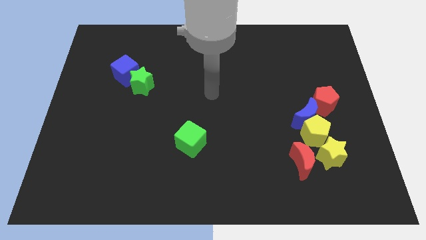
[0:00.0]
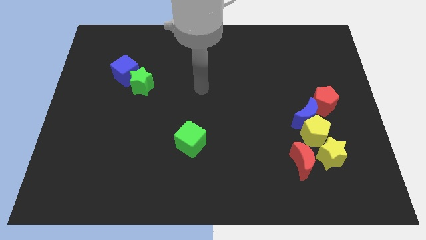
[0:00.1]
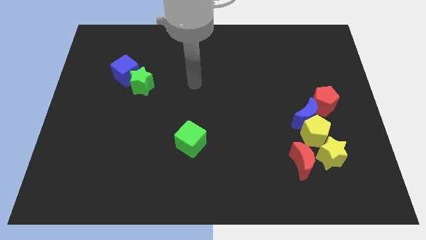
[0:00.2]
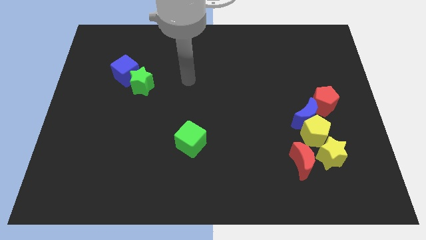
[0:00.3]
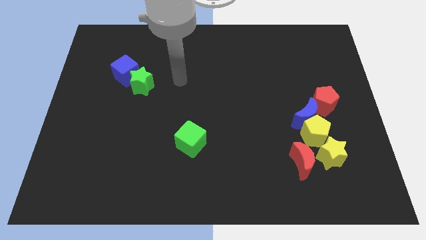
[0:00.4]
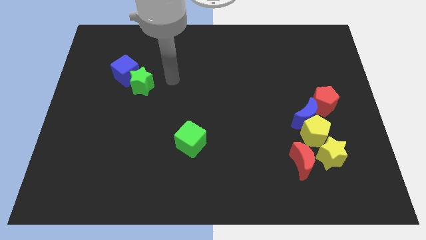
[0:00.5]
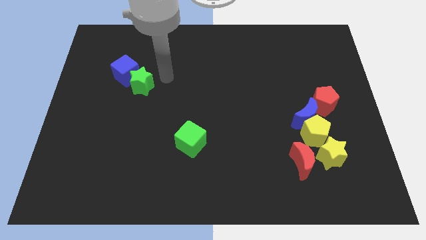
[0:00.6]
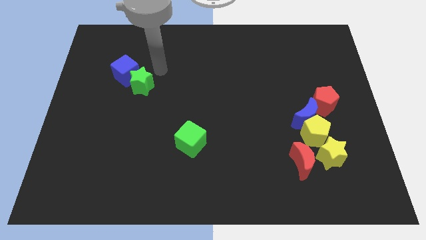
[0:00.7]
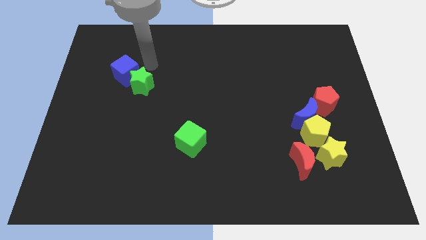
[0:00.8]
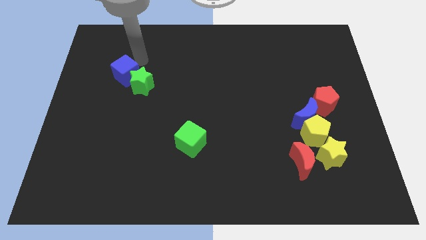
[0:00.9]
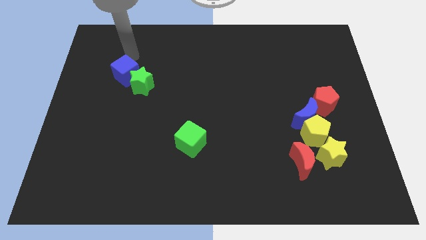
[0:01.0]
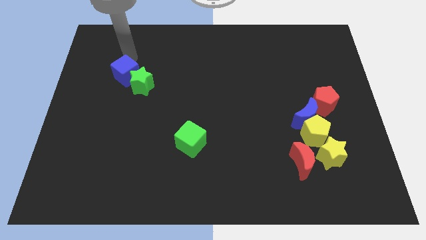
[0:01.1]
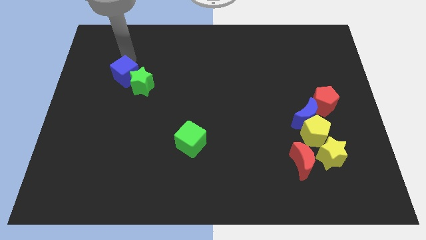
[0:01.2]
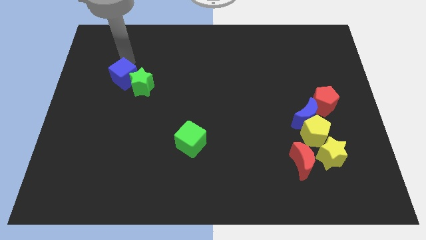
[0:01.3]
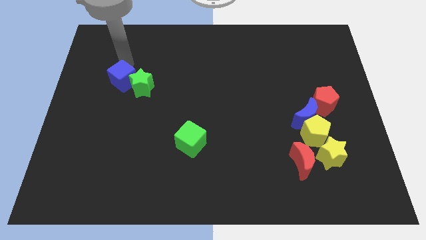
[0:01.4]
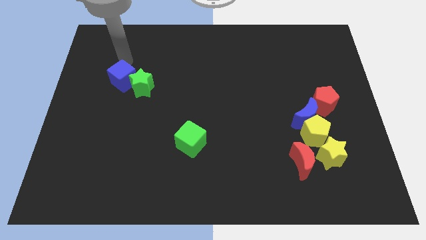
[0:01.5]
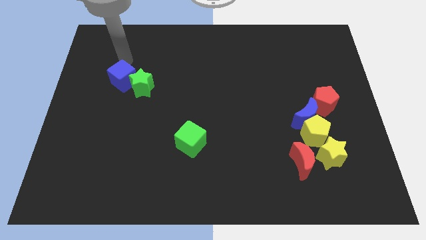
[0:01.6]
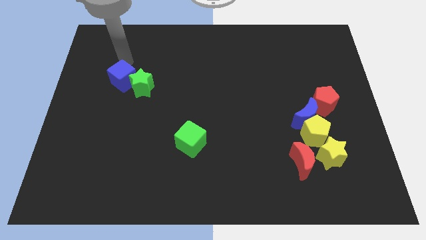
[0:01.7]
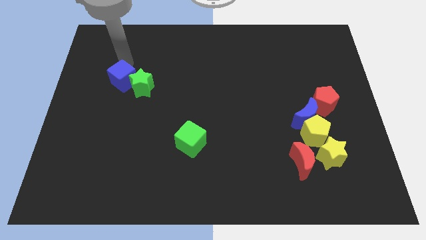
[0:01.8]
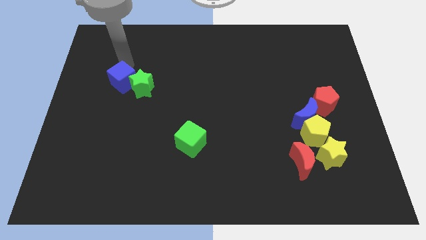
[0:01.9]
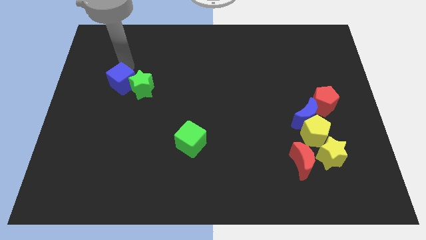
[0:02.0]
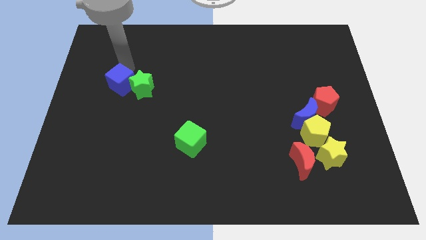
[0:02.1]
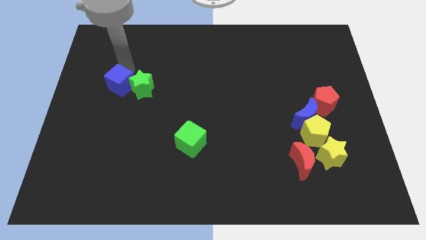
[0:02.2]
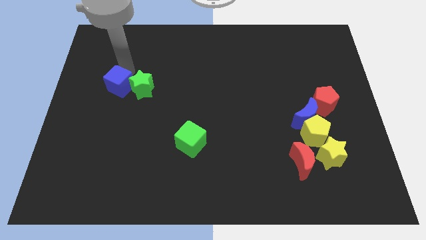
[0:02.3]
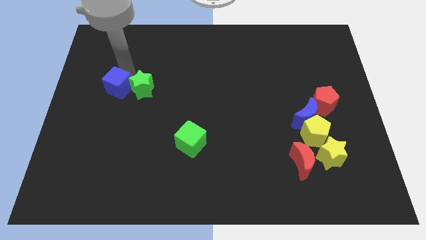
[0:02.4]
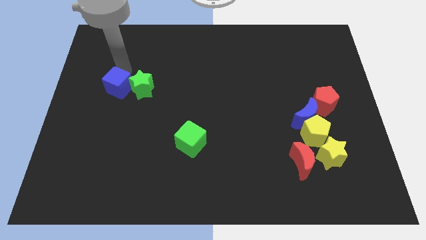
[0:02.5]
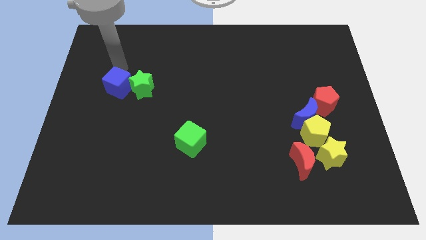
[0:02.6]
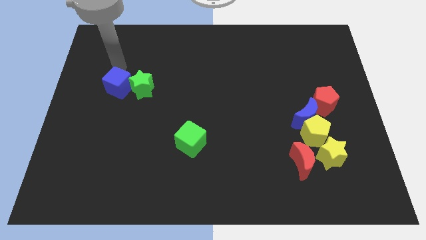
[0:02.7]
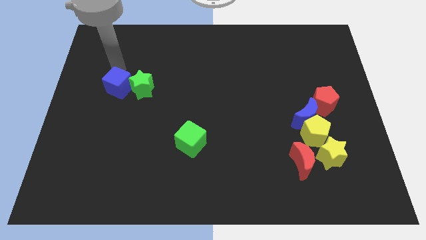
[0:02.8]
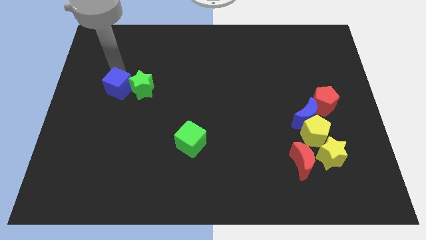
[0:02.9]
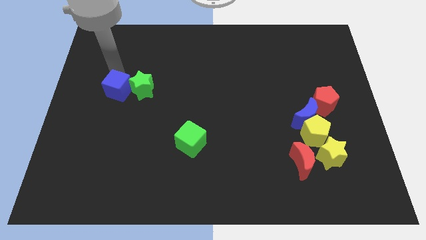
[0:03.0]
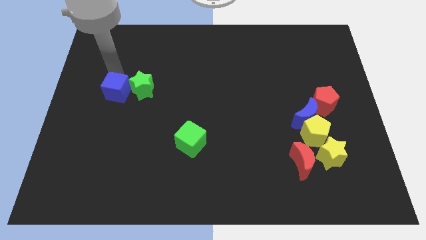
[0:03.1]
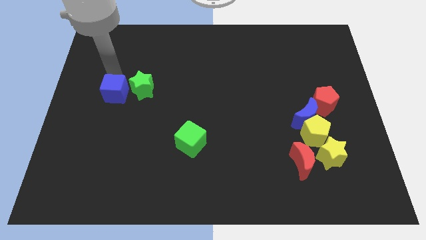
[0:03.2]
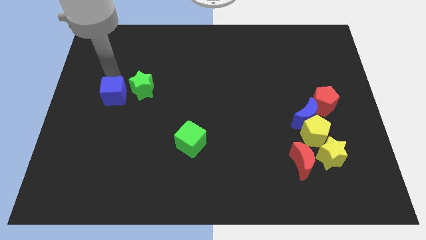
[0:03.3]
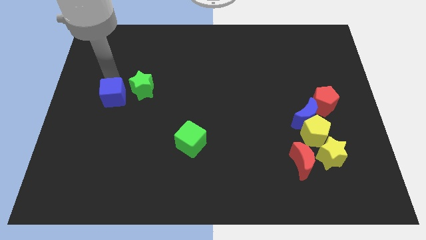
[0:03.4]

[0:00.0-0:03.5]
slightly move the blue cube downwards

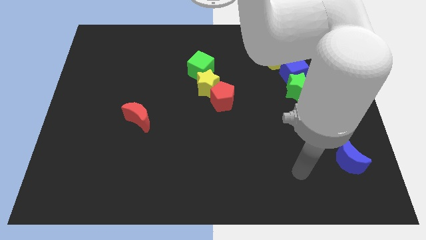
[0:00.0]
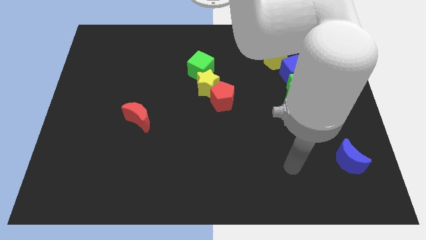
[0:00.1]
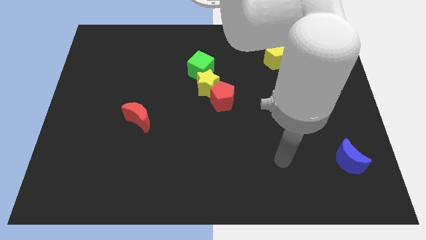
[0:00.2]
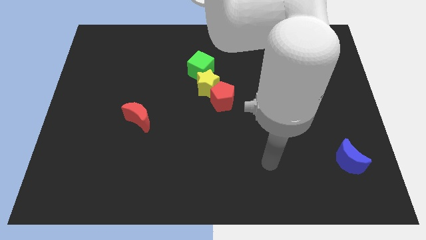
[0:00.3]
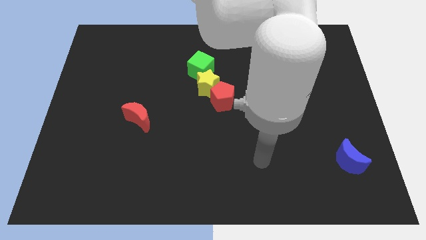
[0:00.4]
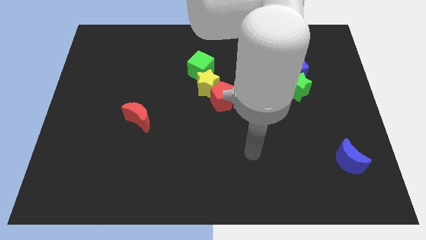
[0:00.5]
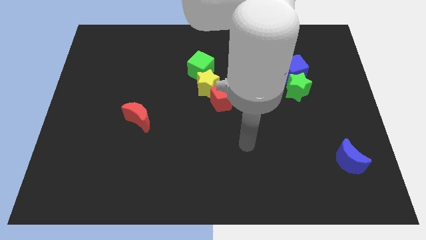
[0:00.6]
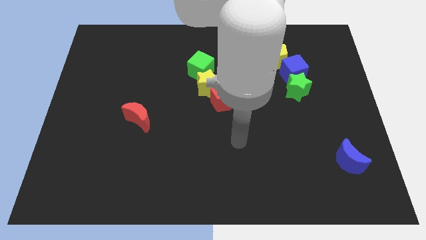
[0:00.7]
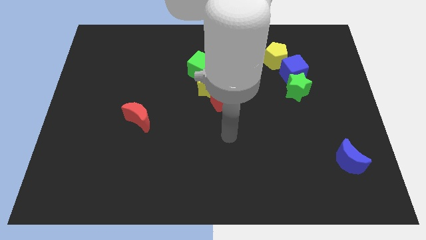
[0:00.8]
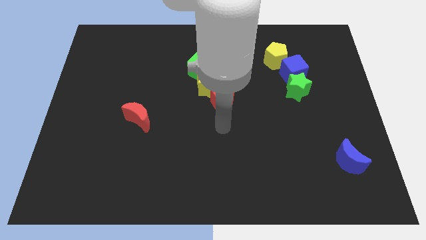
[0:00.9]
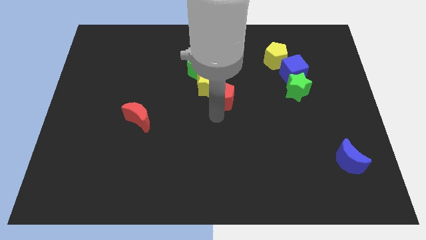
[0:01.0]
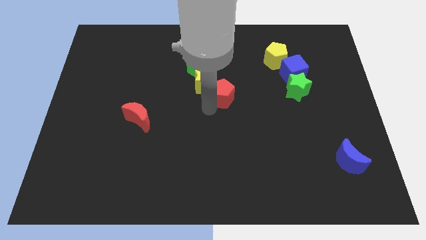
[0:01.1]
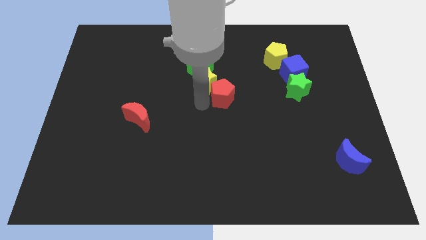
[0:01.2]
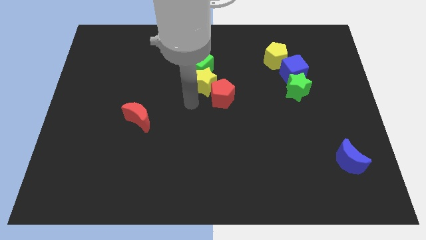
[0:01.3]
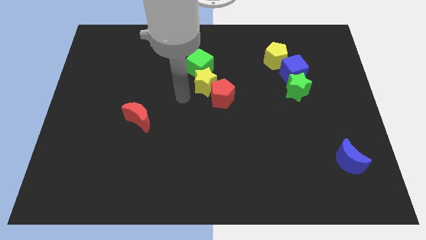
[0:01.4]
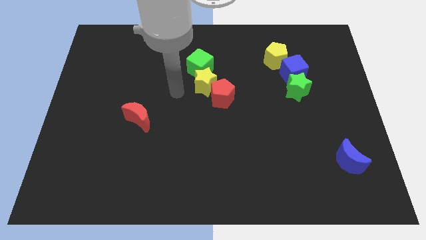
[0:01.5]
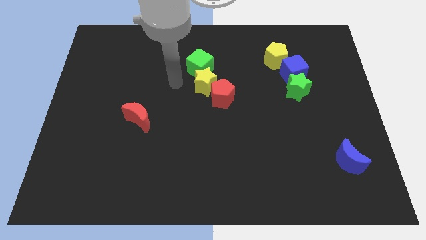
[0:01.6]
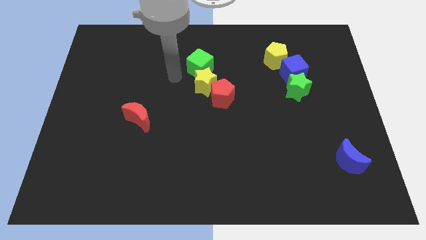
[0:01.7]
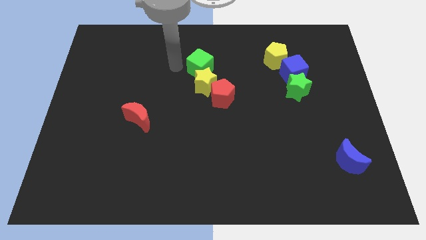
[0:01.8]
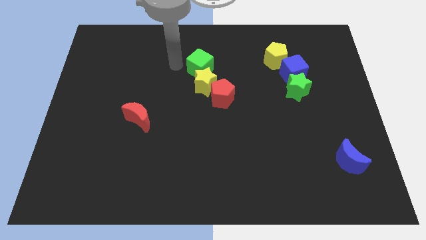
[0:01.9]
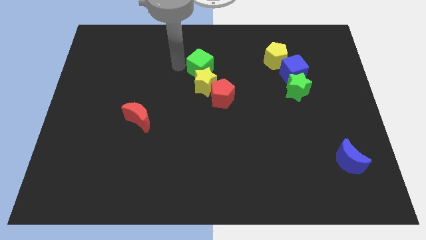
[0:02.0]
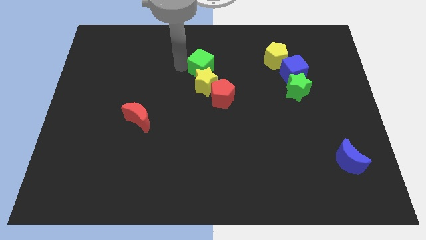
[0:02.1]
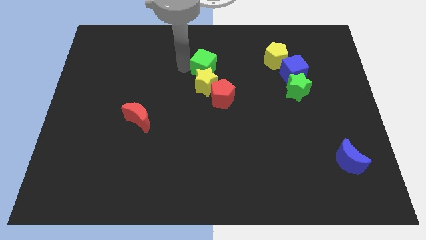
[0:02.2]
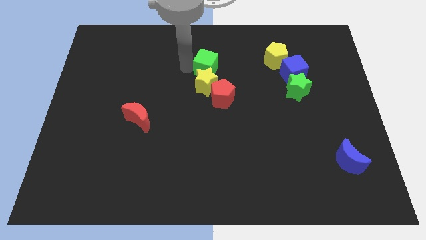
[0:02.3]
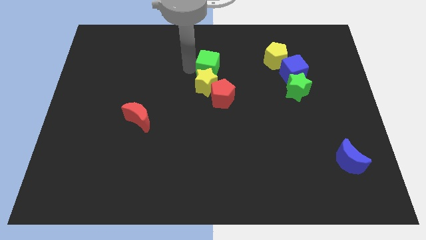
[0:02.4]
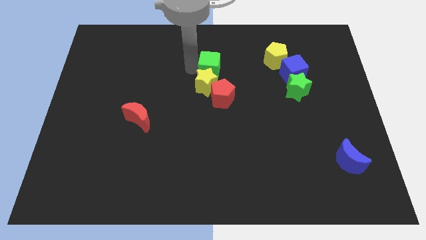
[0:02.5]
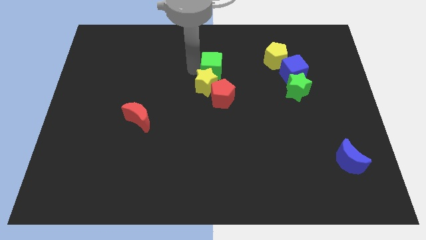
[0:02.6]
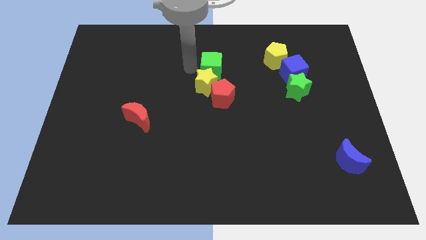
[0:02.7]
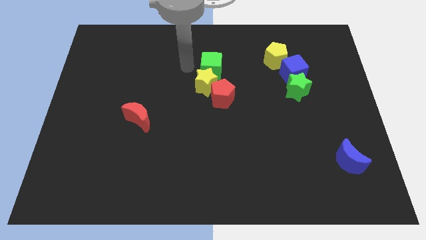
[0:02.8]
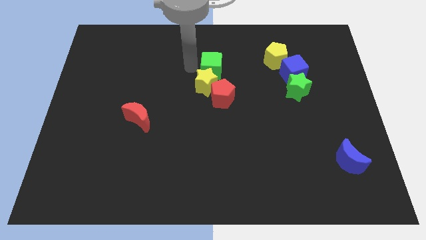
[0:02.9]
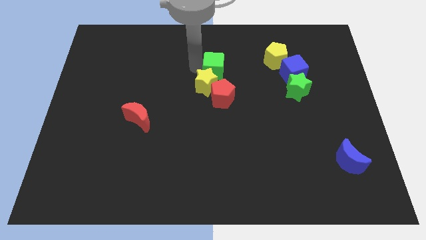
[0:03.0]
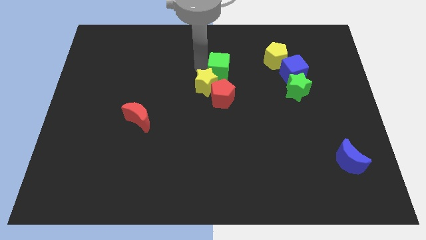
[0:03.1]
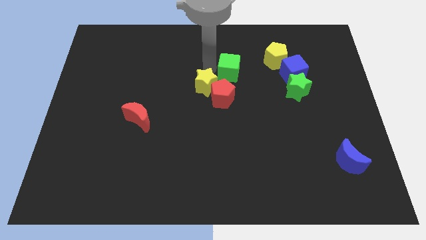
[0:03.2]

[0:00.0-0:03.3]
slide the green cube somewhat to the right

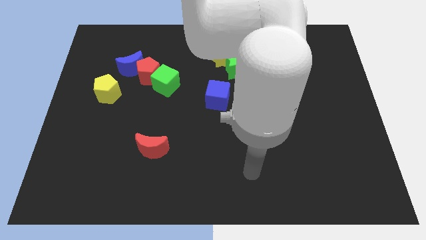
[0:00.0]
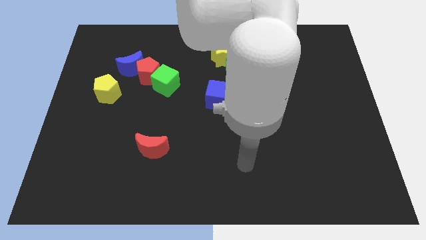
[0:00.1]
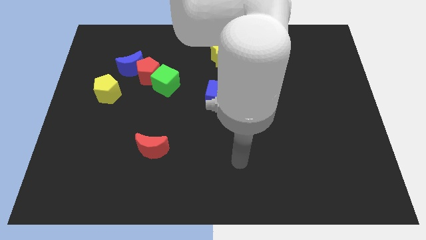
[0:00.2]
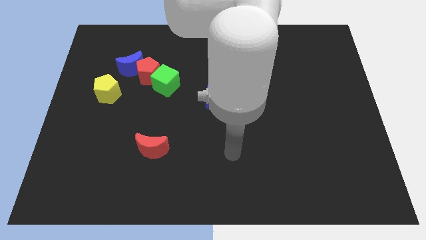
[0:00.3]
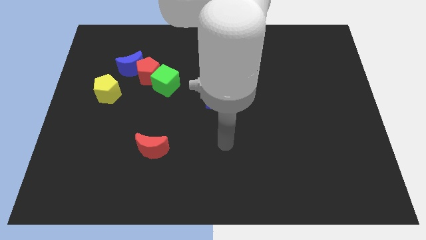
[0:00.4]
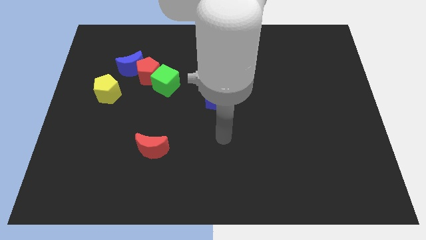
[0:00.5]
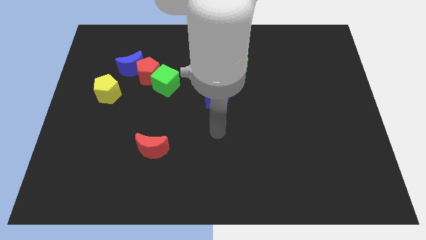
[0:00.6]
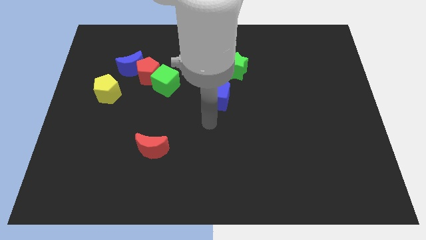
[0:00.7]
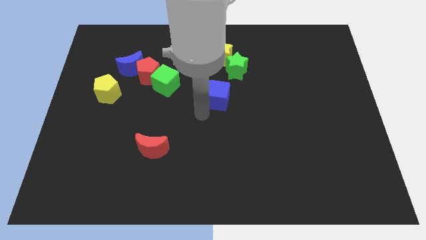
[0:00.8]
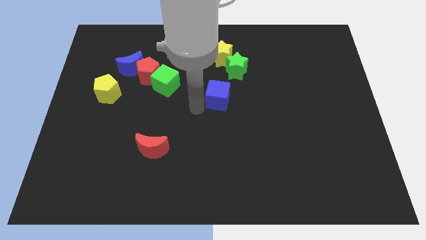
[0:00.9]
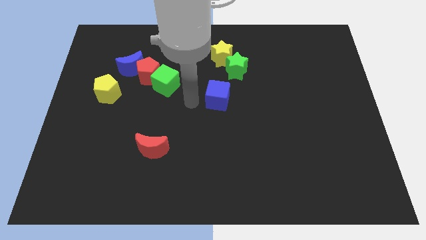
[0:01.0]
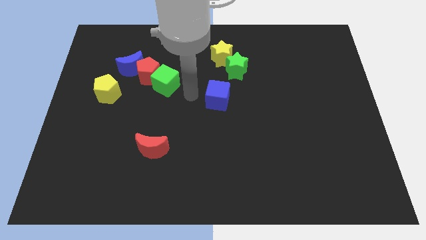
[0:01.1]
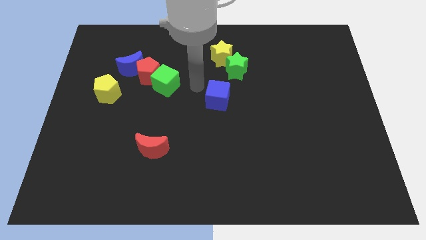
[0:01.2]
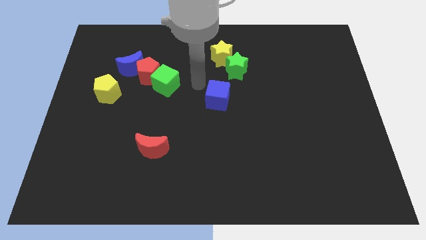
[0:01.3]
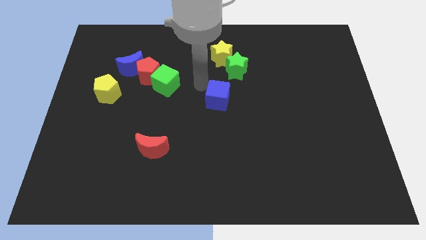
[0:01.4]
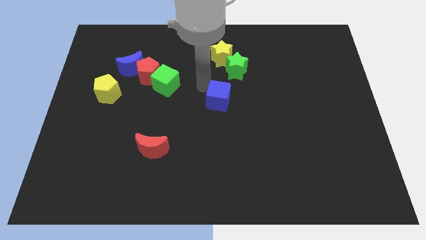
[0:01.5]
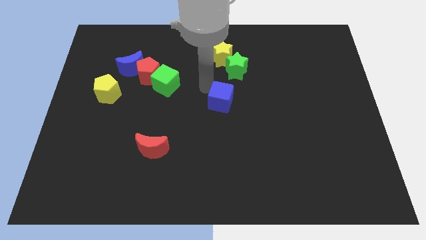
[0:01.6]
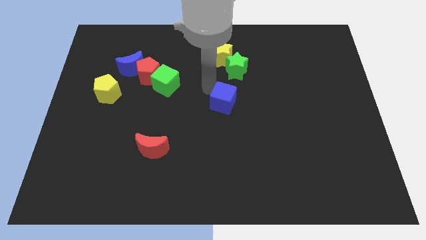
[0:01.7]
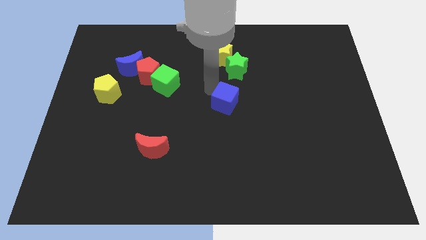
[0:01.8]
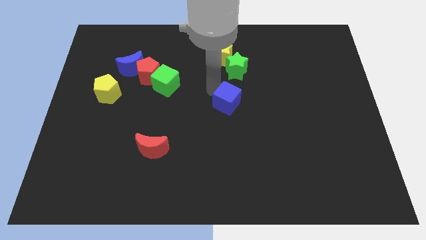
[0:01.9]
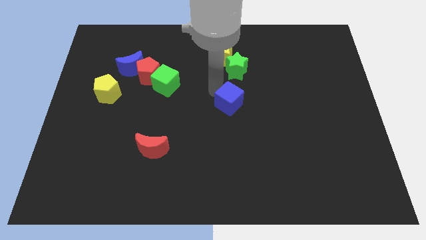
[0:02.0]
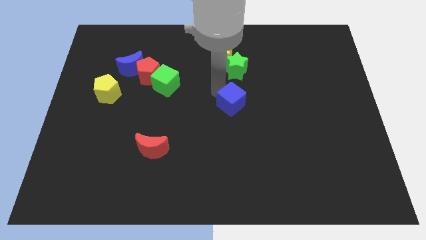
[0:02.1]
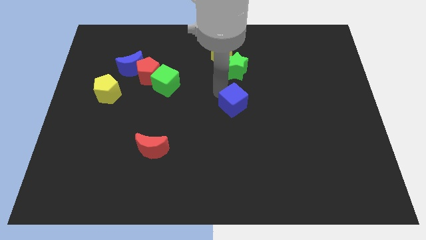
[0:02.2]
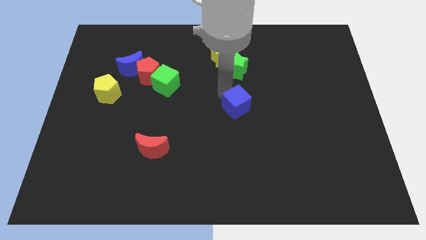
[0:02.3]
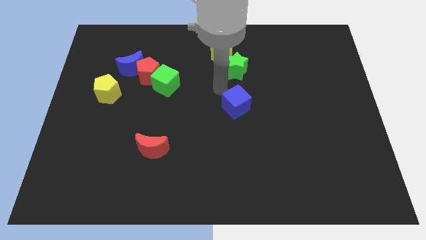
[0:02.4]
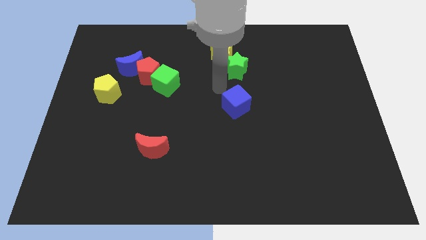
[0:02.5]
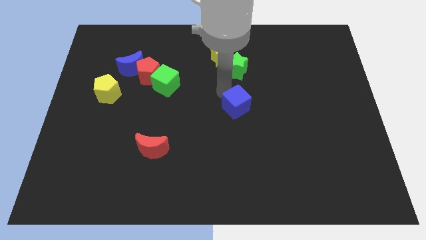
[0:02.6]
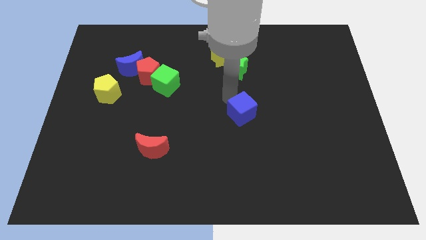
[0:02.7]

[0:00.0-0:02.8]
push the blue cube somewhat downwards and right
